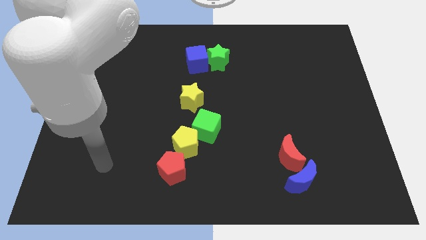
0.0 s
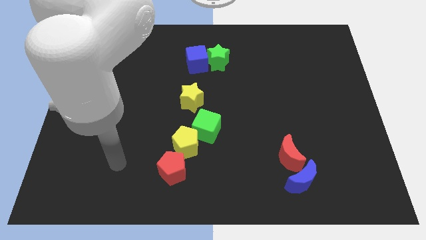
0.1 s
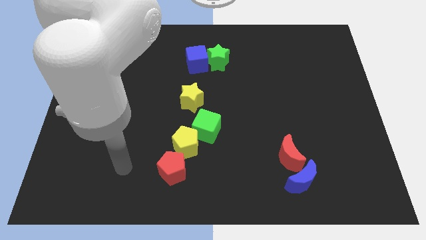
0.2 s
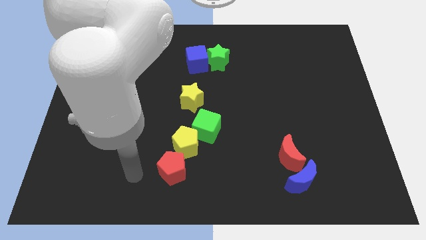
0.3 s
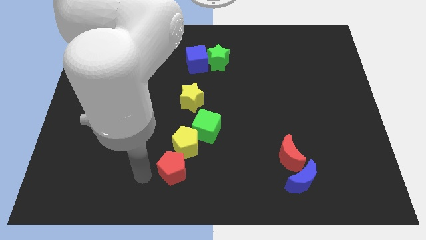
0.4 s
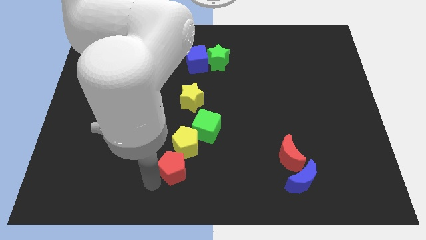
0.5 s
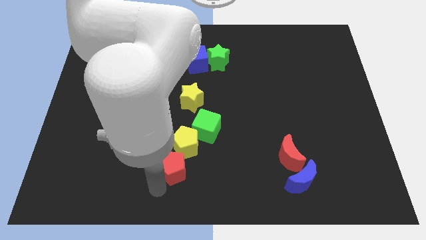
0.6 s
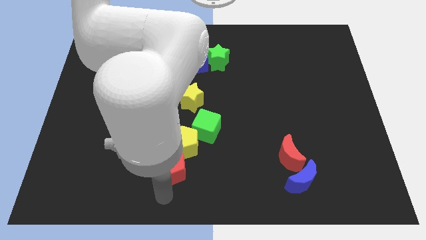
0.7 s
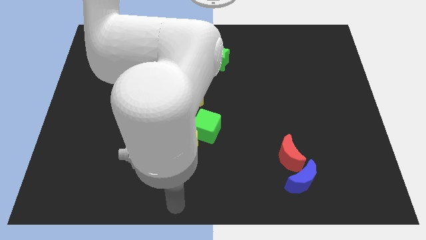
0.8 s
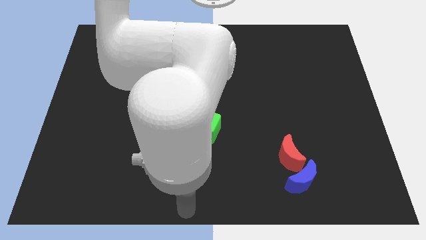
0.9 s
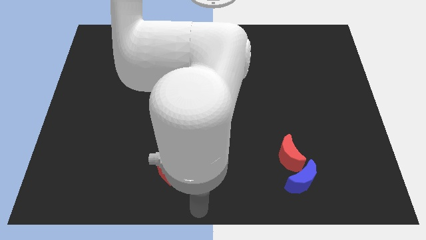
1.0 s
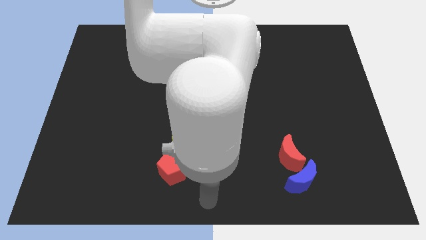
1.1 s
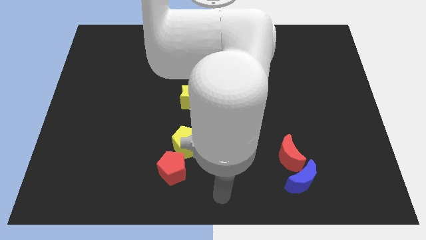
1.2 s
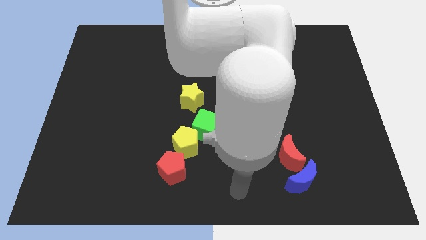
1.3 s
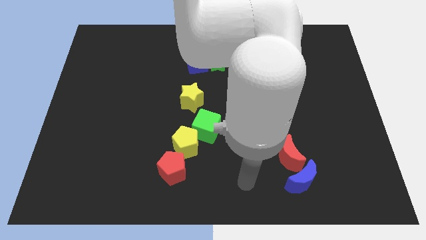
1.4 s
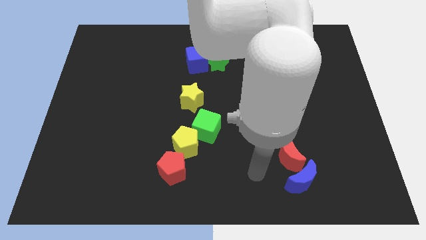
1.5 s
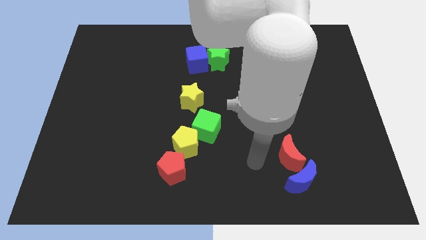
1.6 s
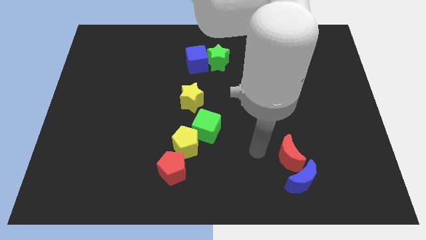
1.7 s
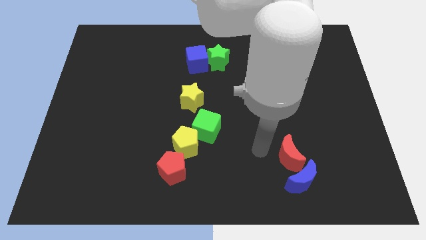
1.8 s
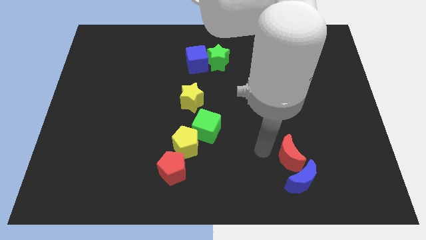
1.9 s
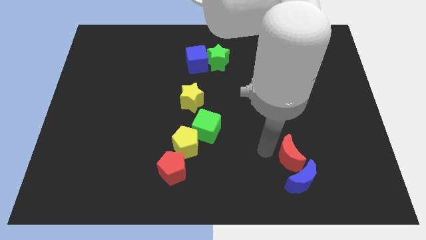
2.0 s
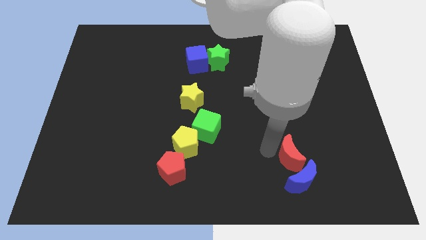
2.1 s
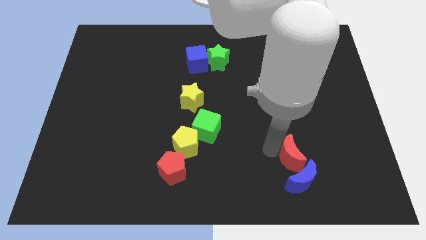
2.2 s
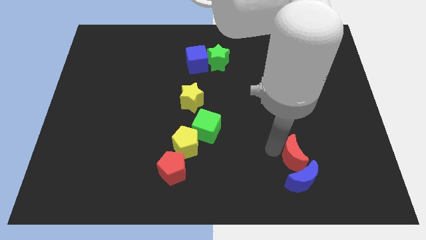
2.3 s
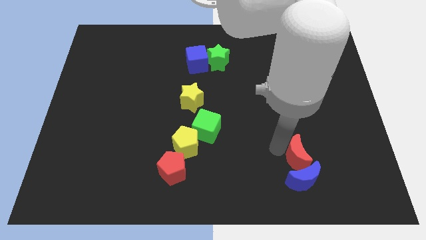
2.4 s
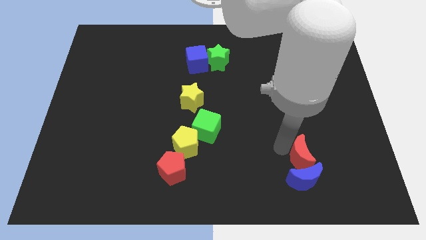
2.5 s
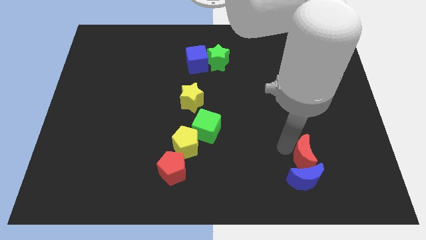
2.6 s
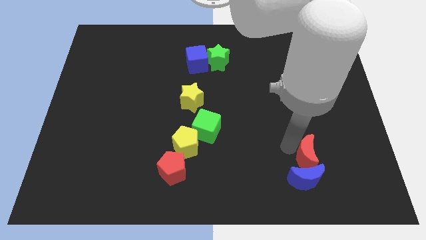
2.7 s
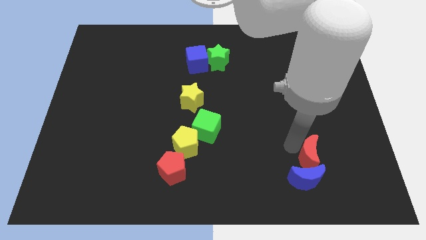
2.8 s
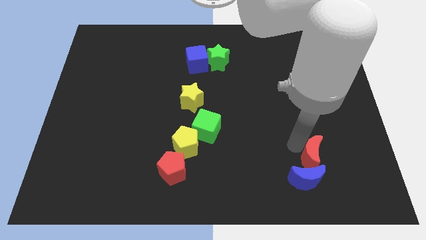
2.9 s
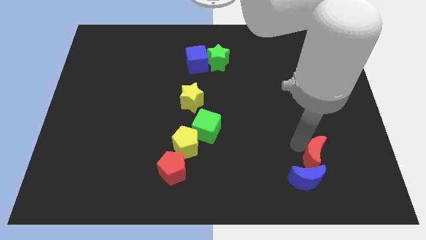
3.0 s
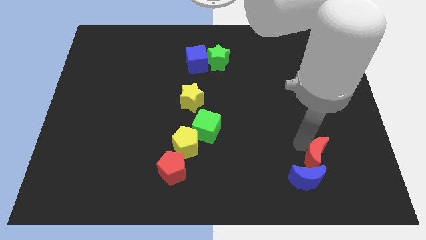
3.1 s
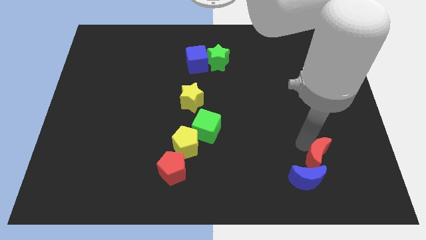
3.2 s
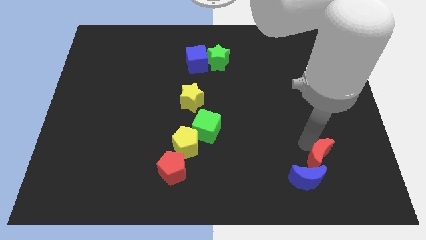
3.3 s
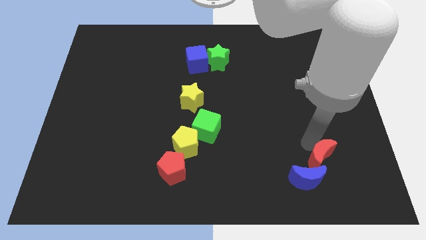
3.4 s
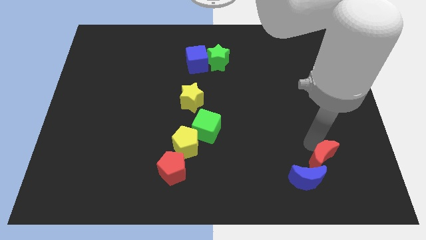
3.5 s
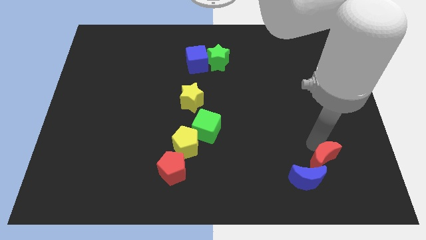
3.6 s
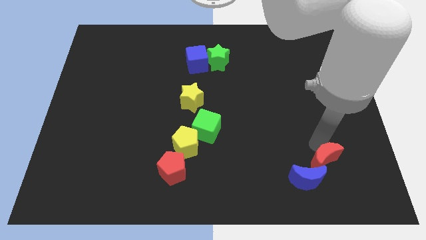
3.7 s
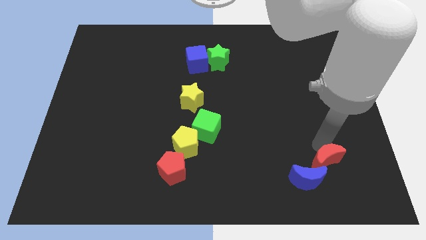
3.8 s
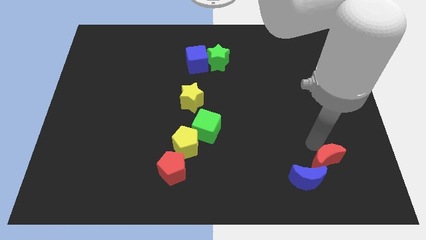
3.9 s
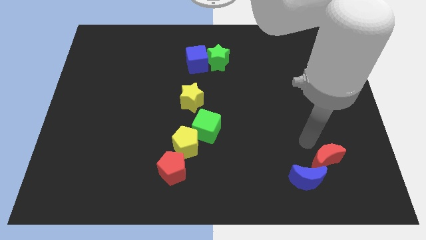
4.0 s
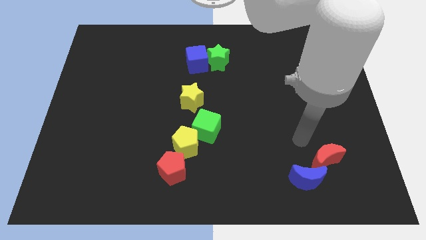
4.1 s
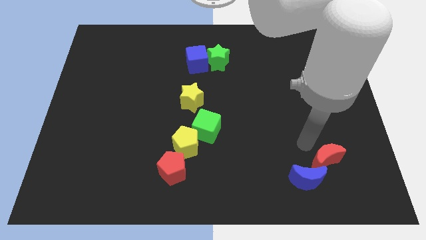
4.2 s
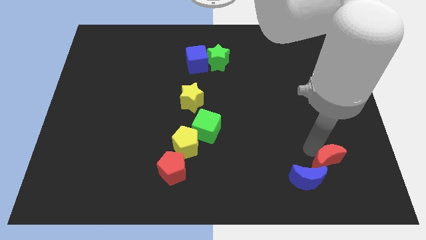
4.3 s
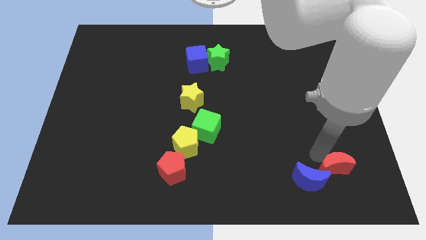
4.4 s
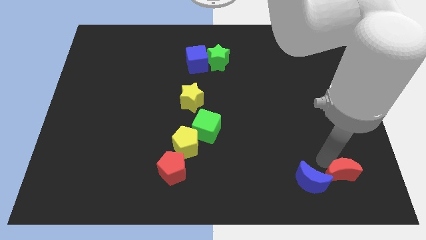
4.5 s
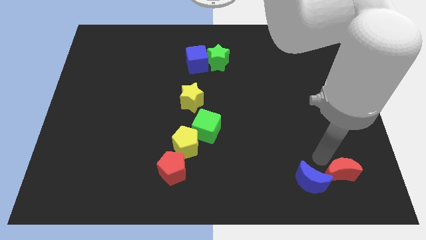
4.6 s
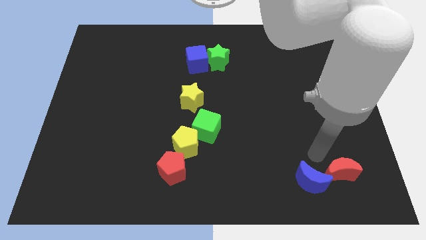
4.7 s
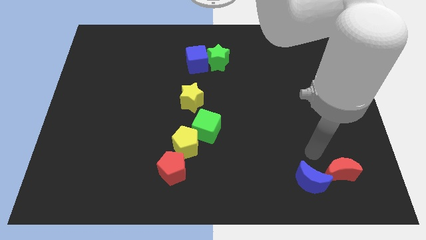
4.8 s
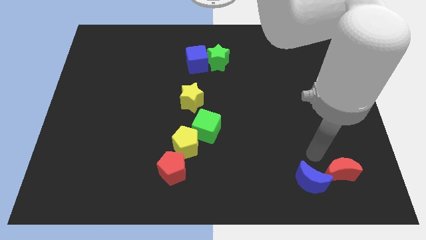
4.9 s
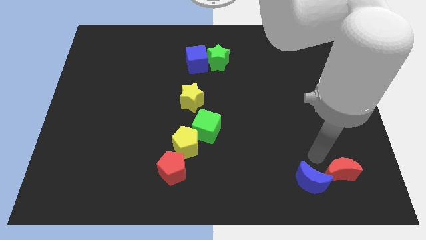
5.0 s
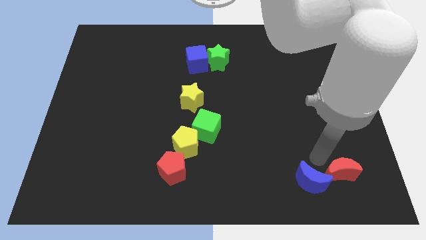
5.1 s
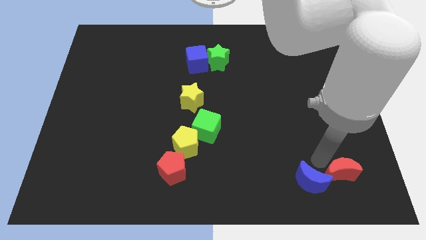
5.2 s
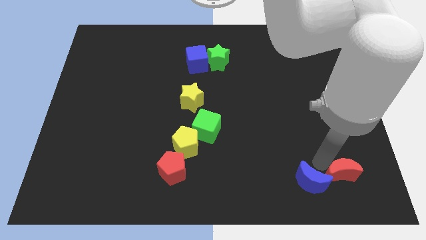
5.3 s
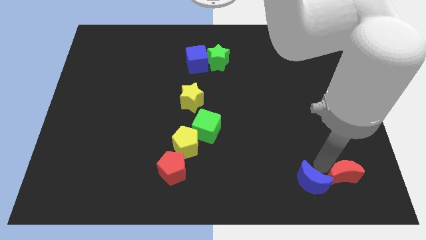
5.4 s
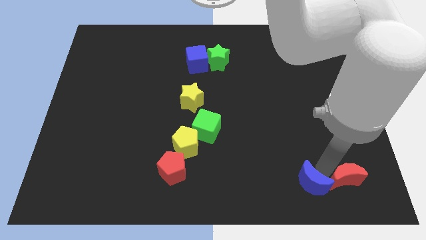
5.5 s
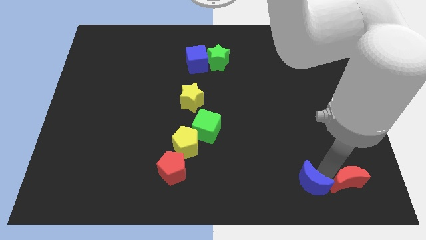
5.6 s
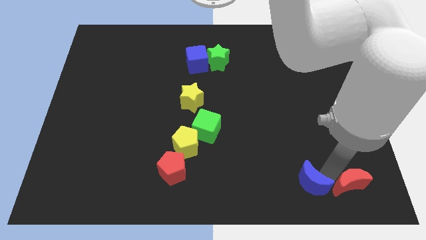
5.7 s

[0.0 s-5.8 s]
put the red moon to the bottom right

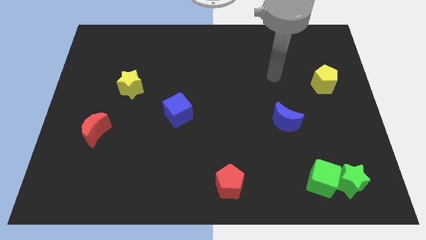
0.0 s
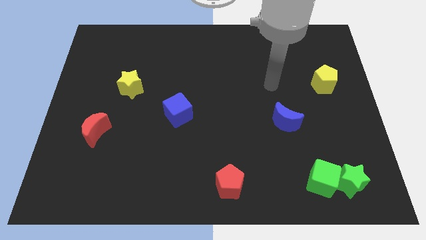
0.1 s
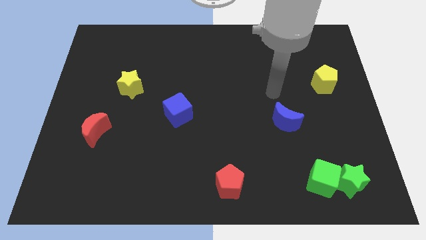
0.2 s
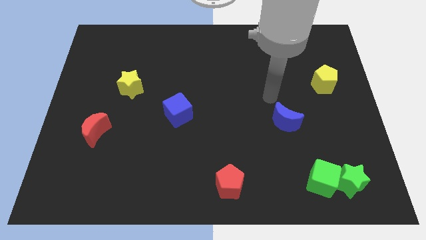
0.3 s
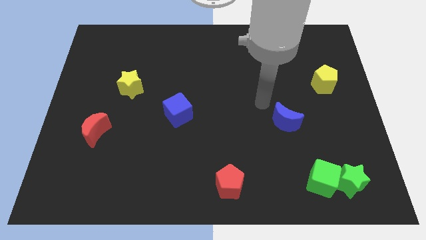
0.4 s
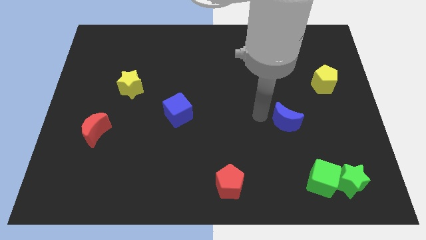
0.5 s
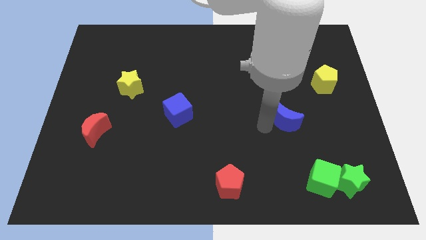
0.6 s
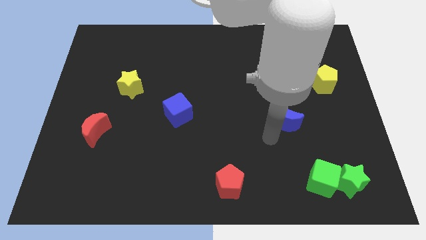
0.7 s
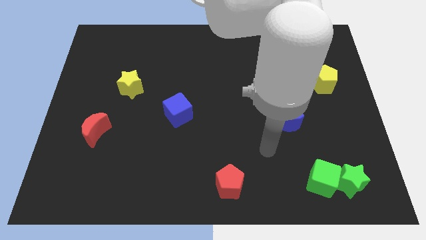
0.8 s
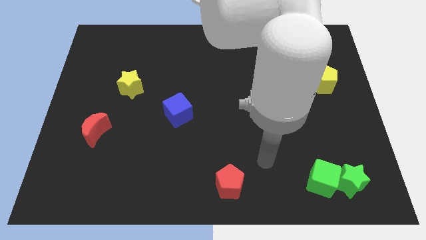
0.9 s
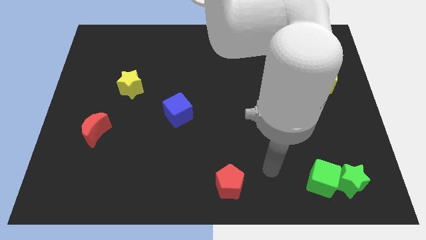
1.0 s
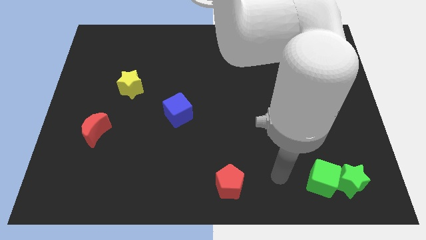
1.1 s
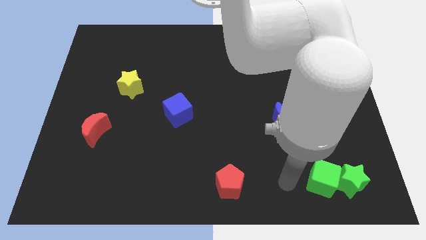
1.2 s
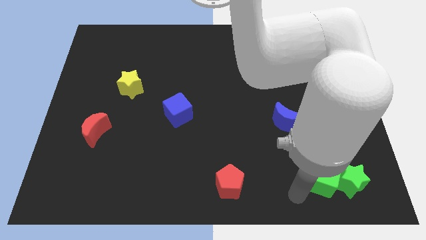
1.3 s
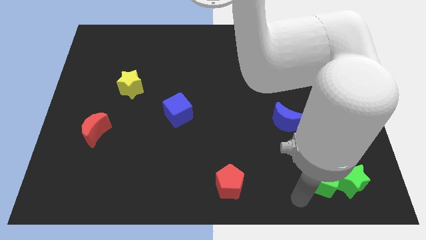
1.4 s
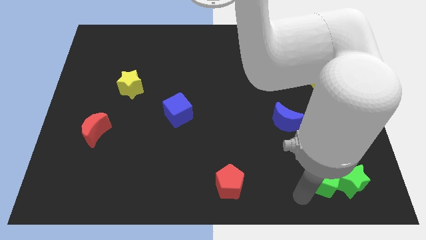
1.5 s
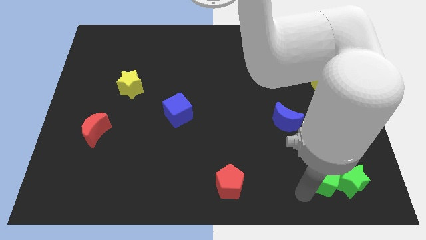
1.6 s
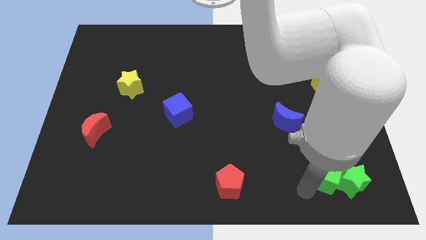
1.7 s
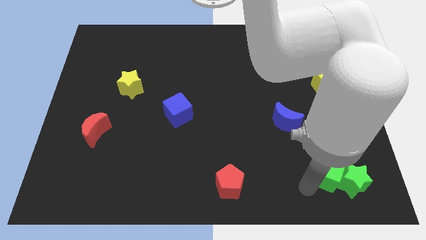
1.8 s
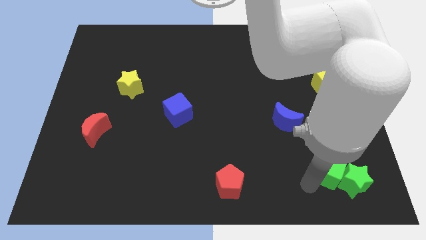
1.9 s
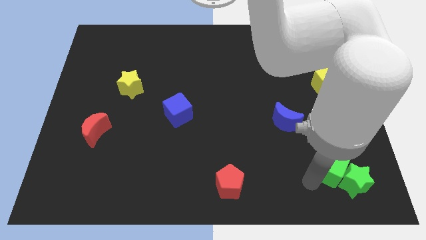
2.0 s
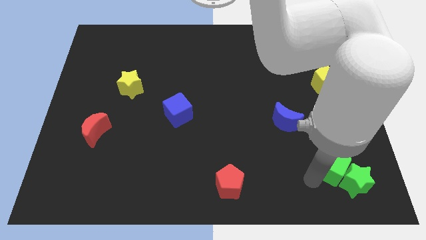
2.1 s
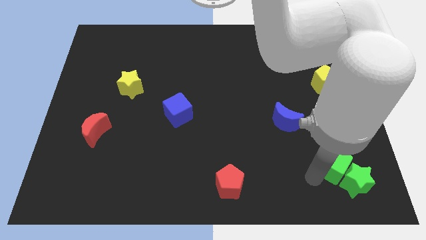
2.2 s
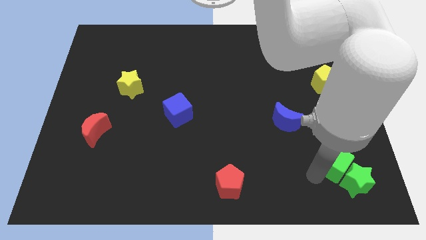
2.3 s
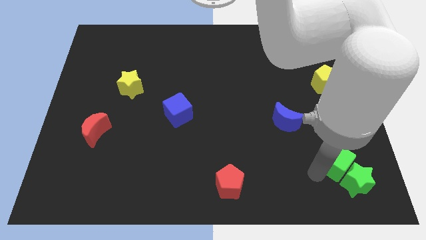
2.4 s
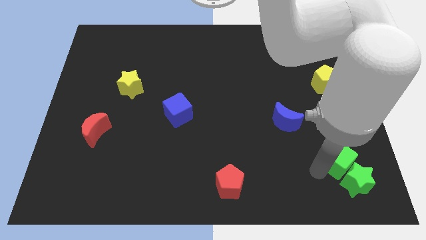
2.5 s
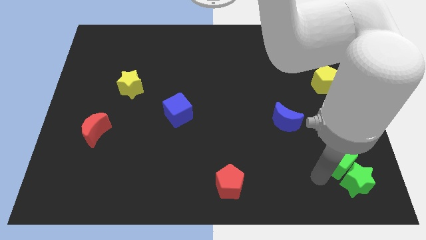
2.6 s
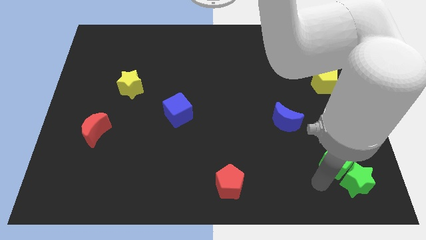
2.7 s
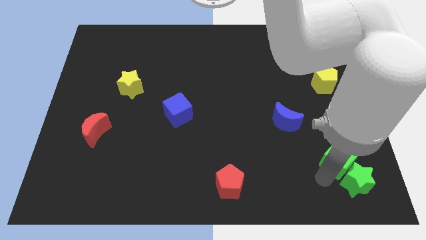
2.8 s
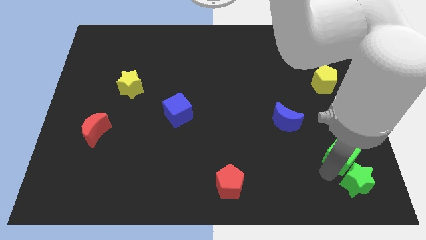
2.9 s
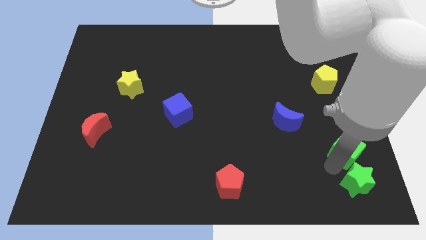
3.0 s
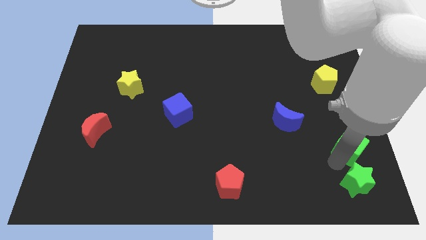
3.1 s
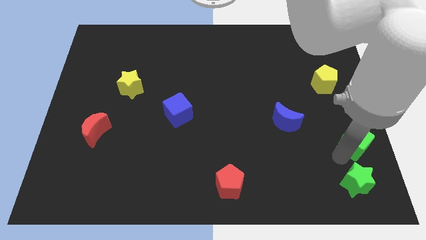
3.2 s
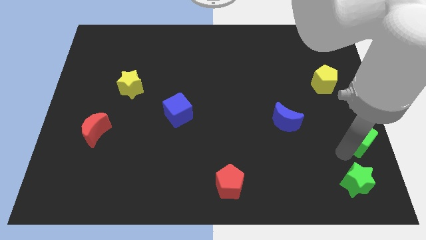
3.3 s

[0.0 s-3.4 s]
slide the green cube to the right side
